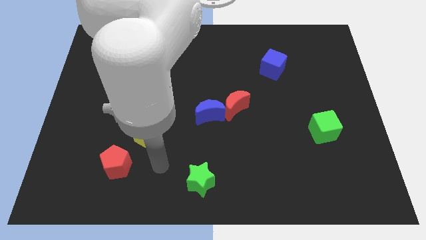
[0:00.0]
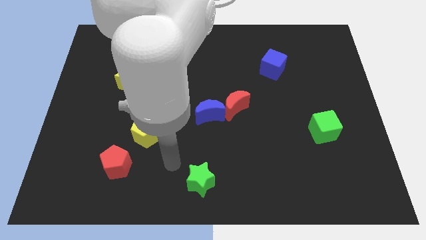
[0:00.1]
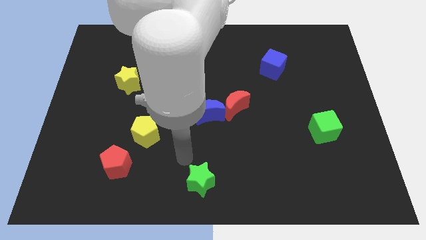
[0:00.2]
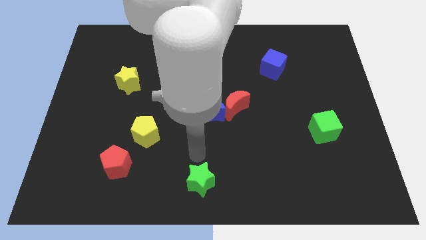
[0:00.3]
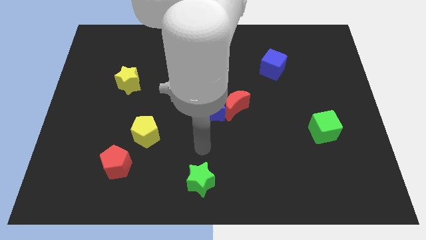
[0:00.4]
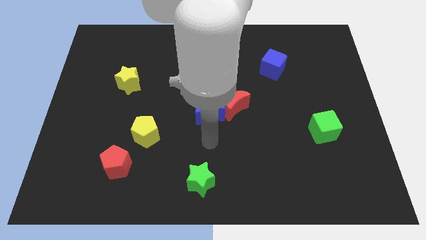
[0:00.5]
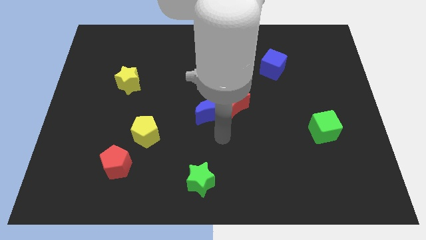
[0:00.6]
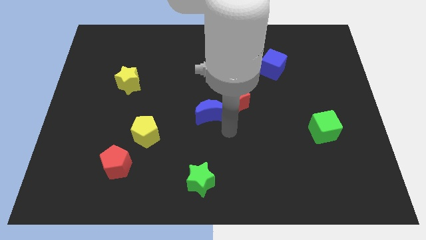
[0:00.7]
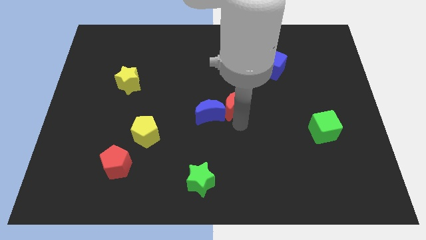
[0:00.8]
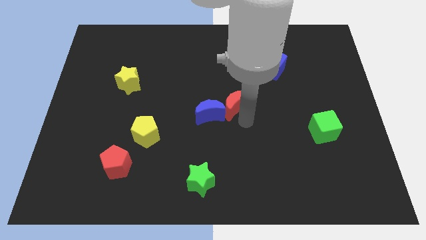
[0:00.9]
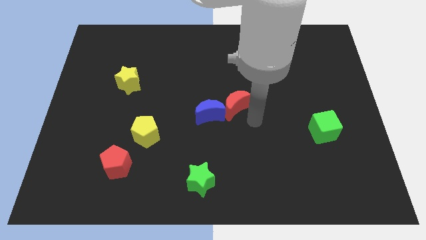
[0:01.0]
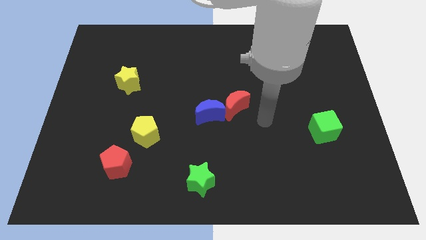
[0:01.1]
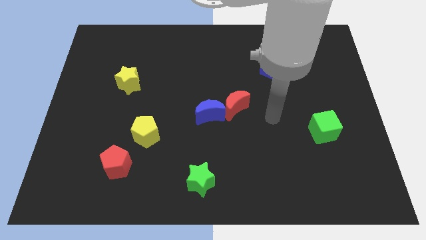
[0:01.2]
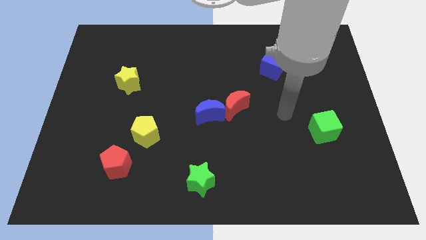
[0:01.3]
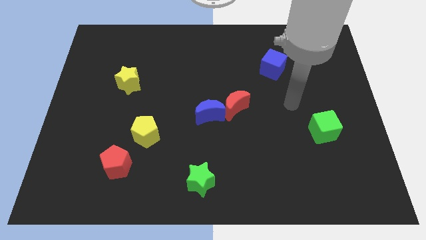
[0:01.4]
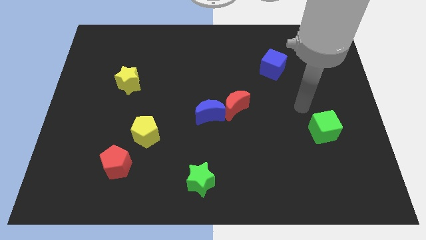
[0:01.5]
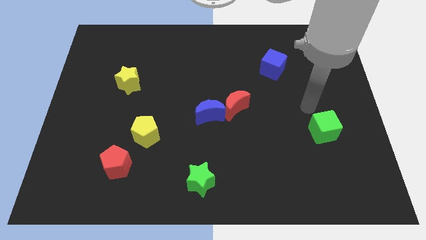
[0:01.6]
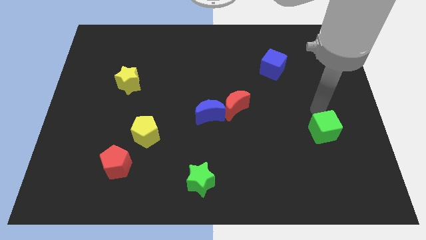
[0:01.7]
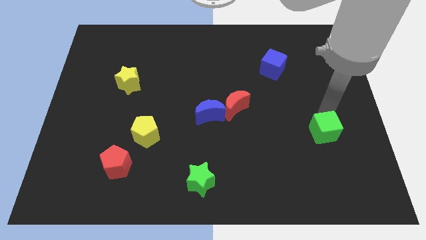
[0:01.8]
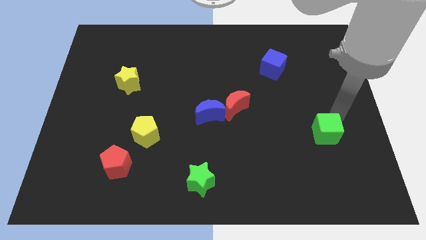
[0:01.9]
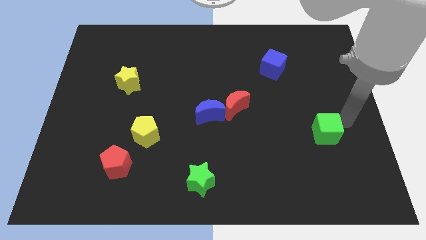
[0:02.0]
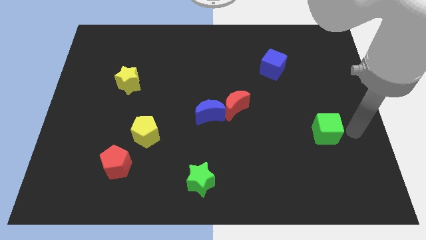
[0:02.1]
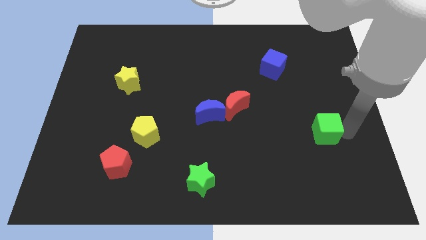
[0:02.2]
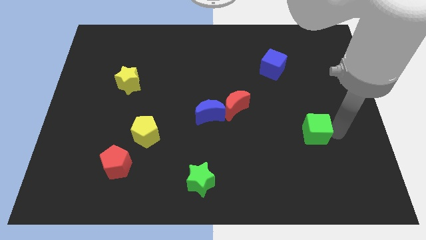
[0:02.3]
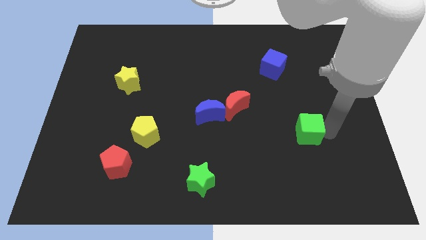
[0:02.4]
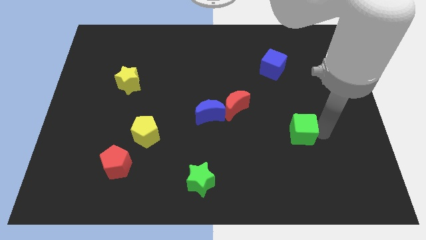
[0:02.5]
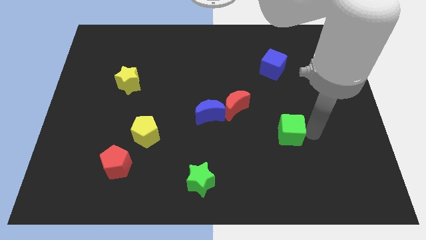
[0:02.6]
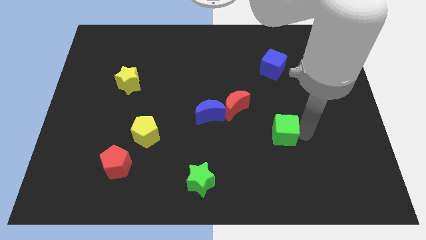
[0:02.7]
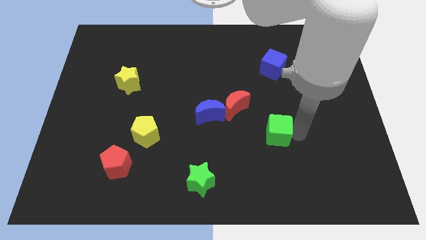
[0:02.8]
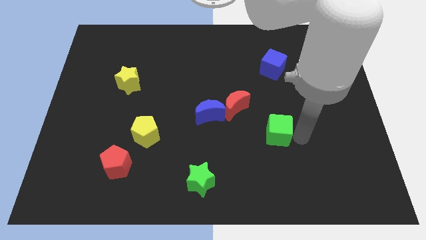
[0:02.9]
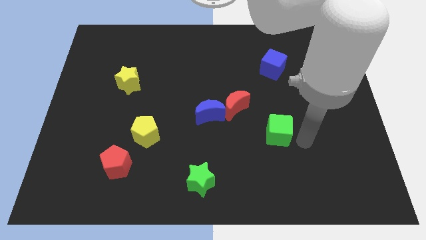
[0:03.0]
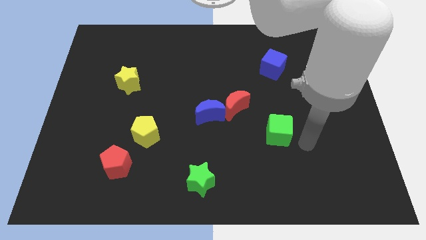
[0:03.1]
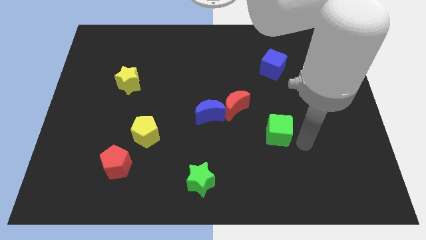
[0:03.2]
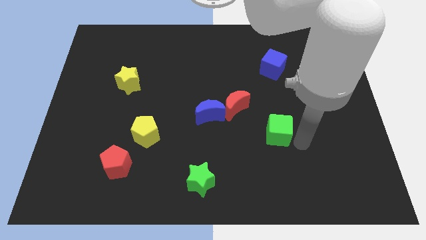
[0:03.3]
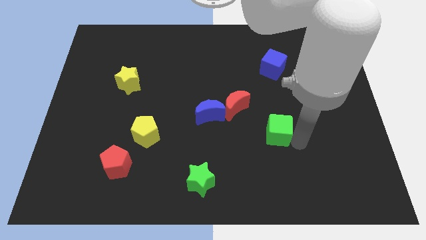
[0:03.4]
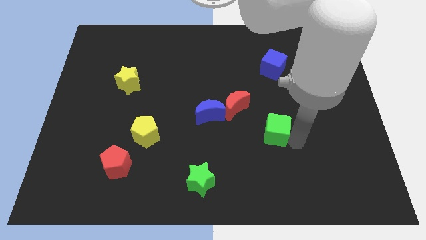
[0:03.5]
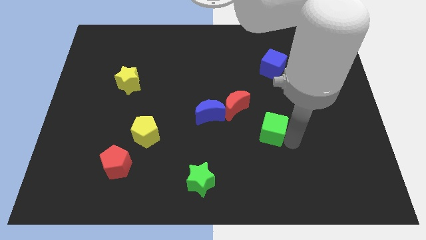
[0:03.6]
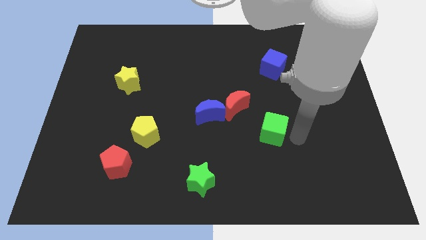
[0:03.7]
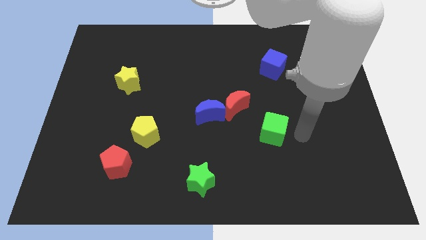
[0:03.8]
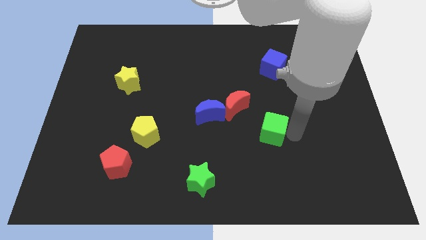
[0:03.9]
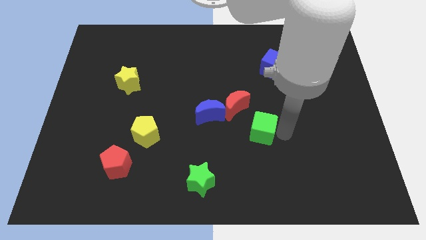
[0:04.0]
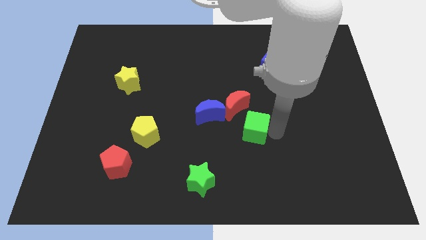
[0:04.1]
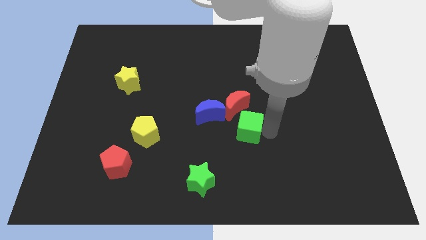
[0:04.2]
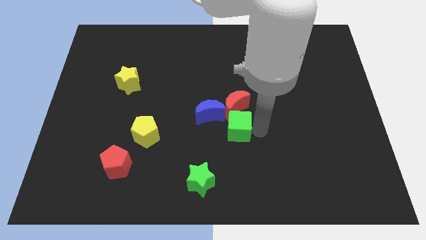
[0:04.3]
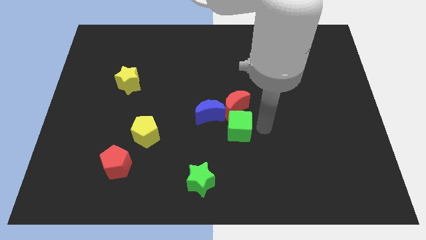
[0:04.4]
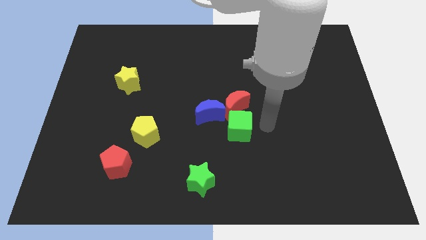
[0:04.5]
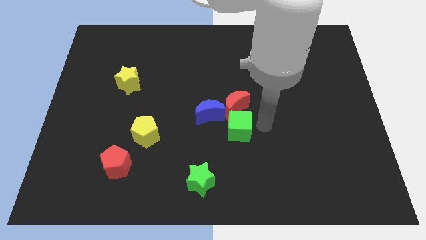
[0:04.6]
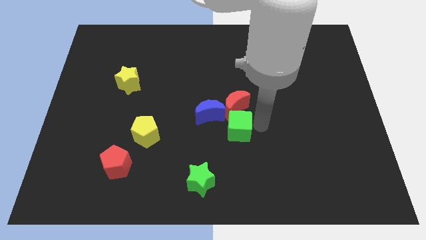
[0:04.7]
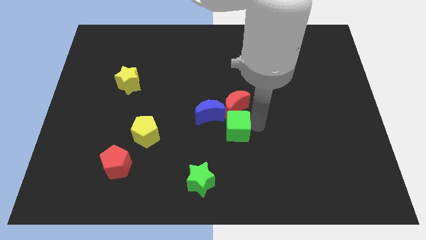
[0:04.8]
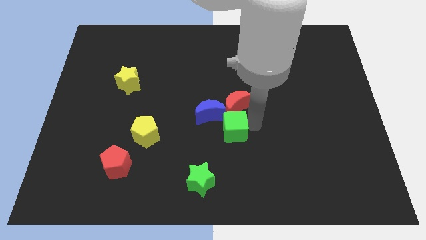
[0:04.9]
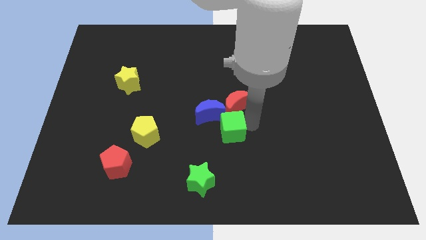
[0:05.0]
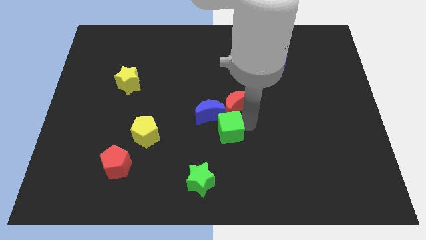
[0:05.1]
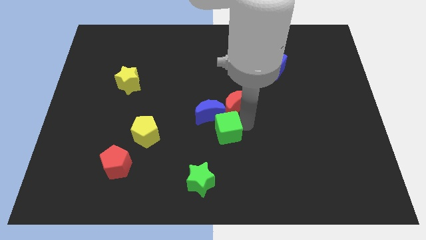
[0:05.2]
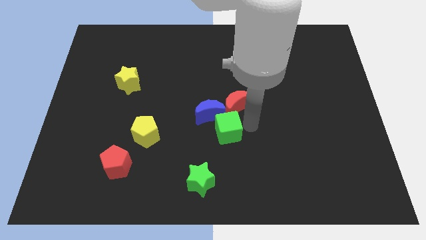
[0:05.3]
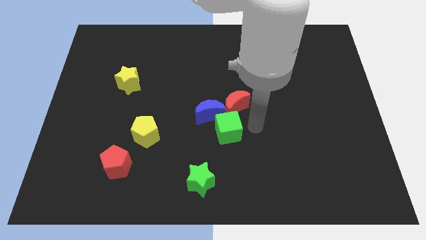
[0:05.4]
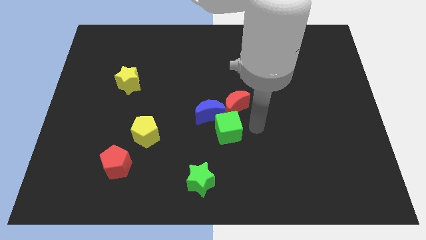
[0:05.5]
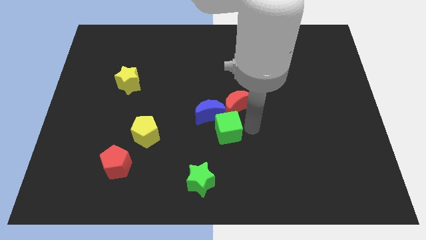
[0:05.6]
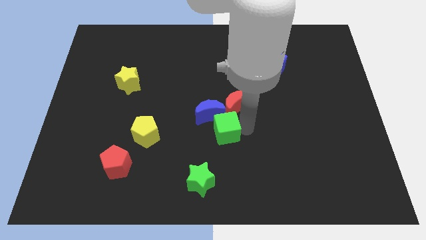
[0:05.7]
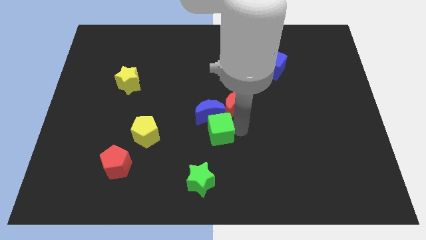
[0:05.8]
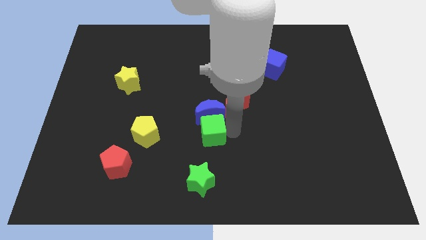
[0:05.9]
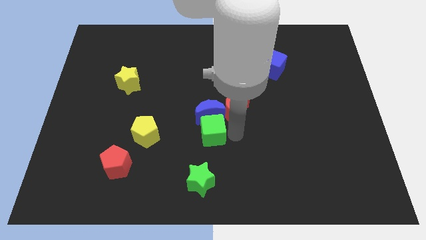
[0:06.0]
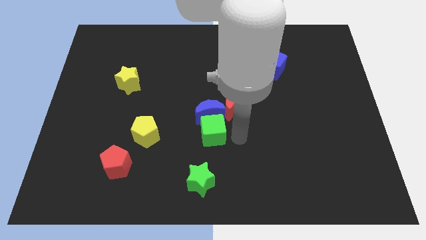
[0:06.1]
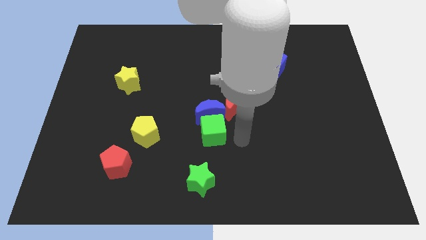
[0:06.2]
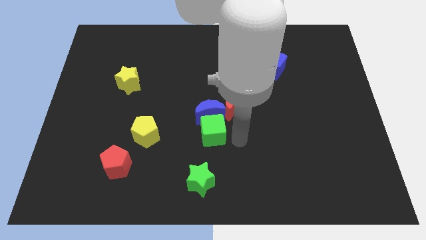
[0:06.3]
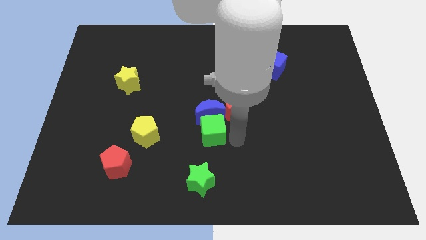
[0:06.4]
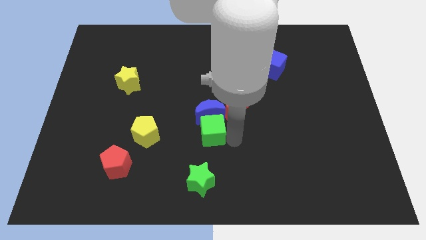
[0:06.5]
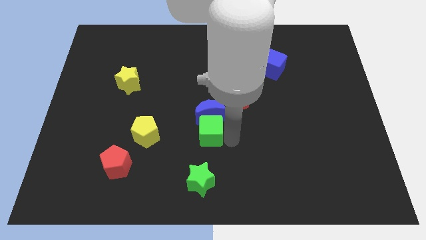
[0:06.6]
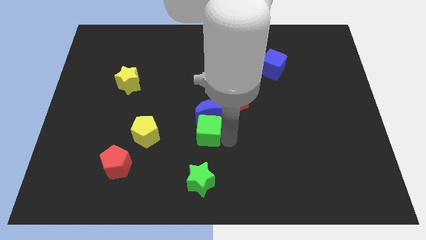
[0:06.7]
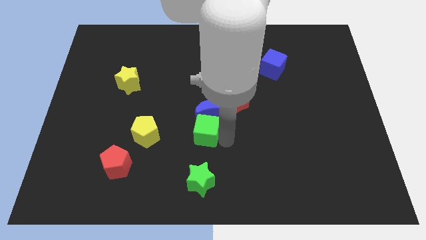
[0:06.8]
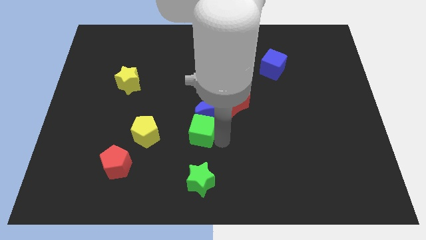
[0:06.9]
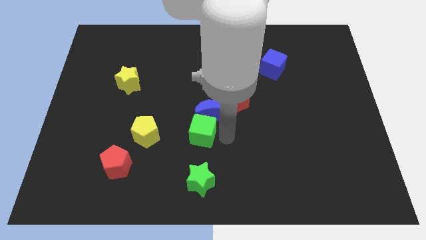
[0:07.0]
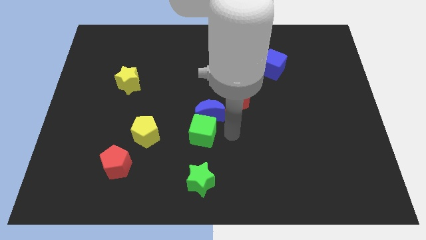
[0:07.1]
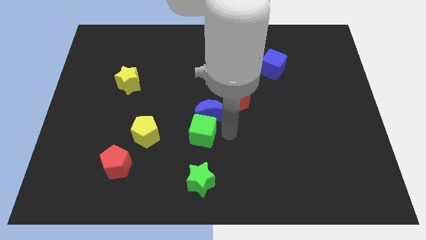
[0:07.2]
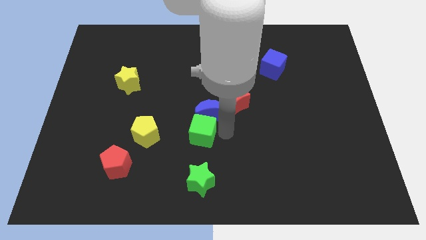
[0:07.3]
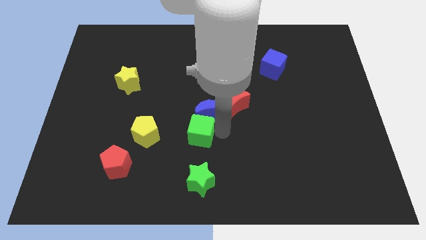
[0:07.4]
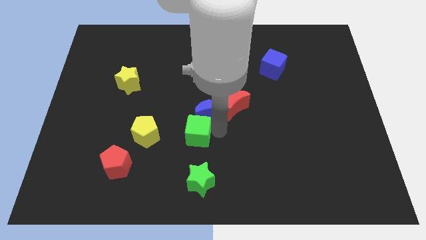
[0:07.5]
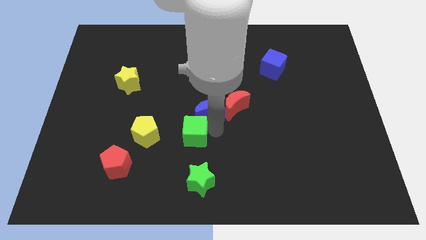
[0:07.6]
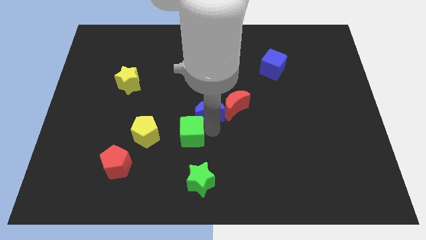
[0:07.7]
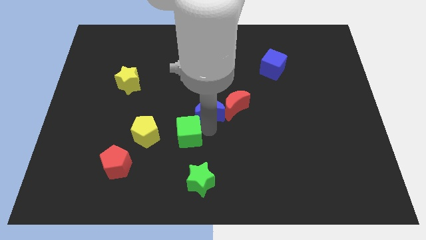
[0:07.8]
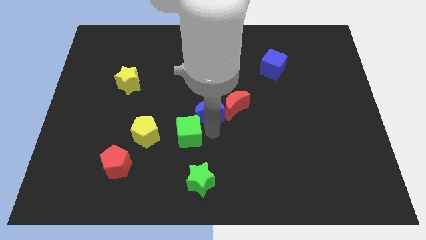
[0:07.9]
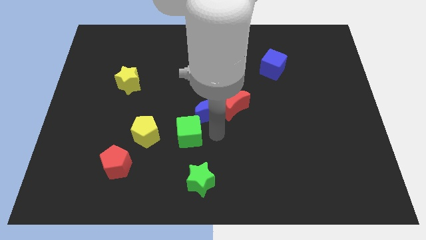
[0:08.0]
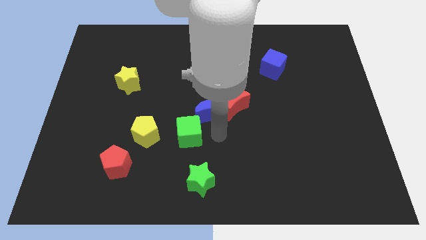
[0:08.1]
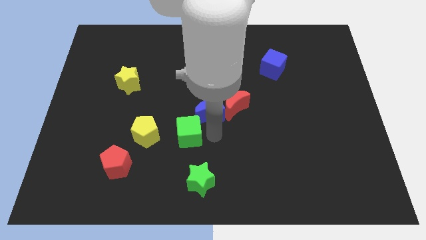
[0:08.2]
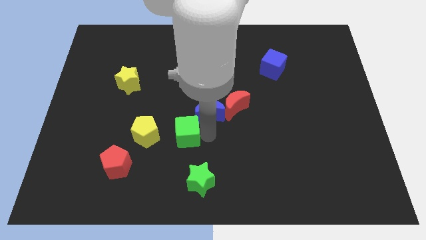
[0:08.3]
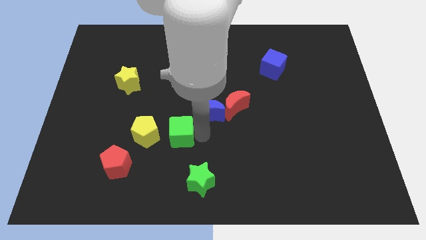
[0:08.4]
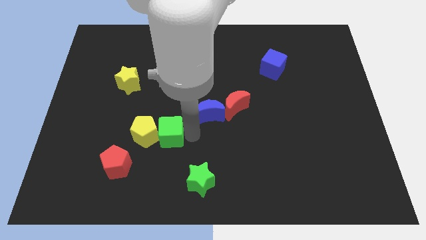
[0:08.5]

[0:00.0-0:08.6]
put the green cube close to the yellow pentagon
